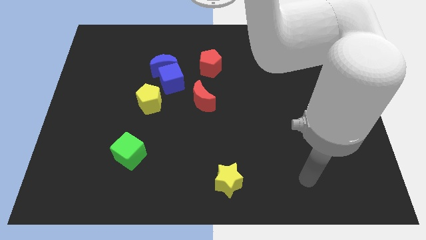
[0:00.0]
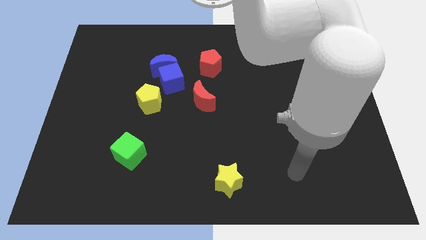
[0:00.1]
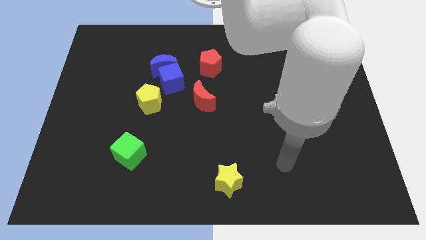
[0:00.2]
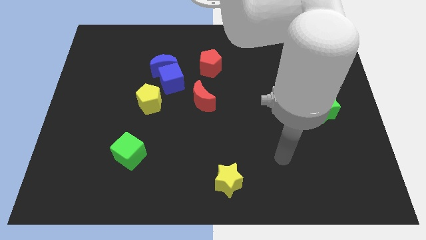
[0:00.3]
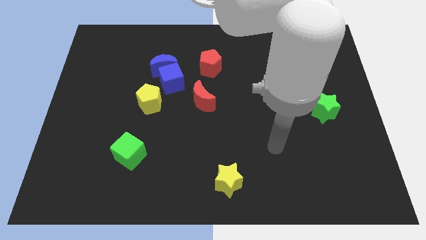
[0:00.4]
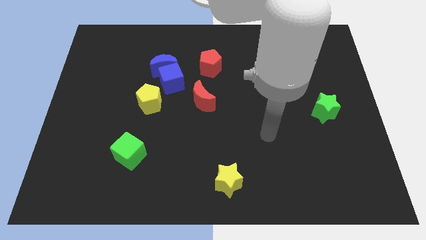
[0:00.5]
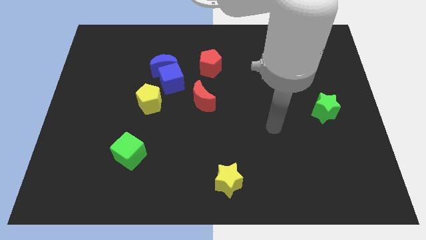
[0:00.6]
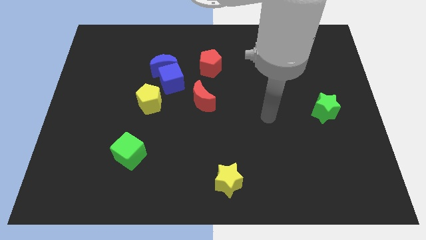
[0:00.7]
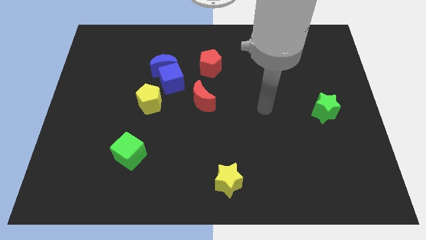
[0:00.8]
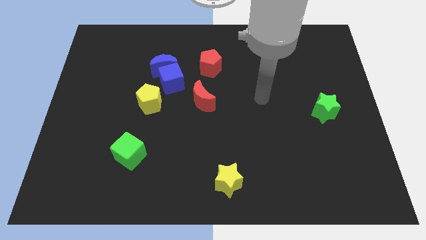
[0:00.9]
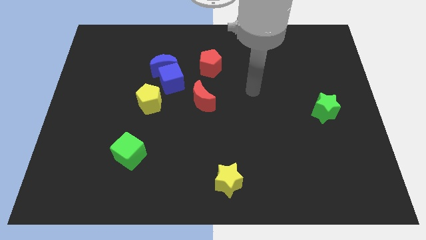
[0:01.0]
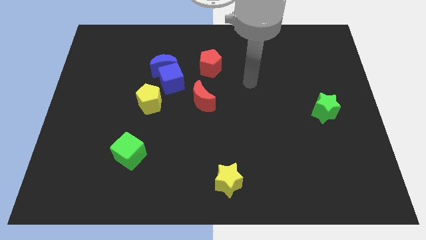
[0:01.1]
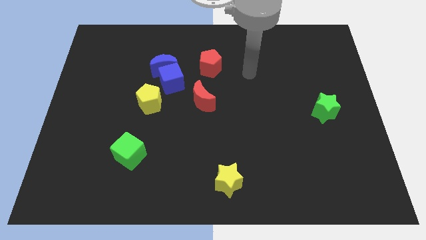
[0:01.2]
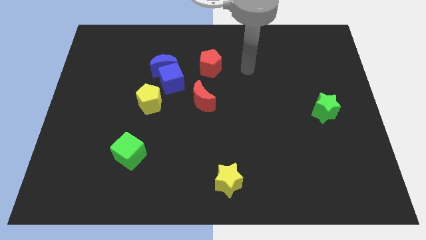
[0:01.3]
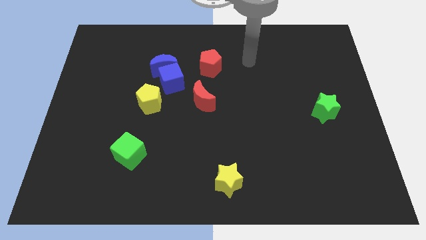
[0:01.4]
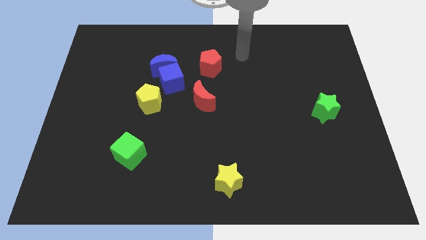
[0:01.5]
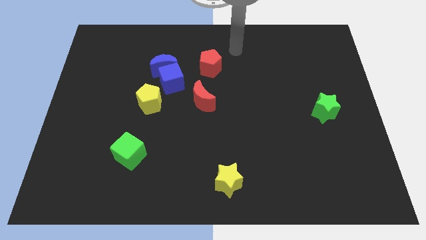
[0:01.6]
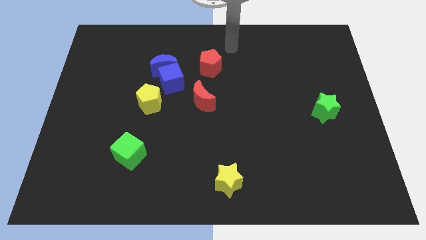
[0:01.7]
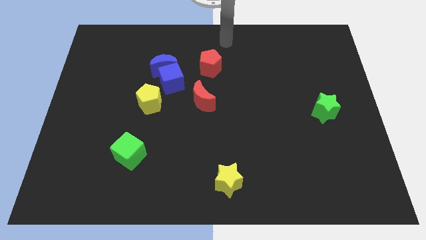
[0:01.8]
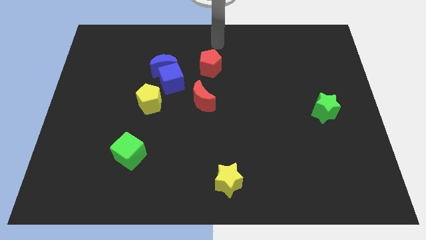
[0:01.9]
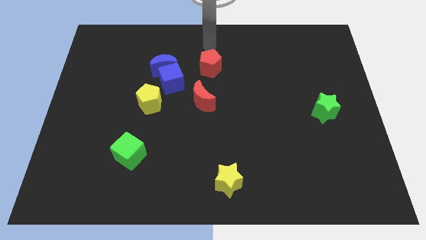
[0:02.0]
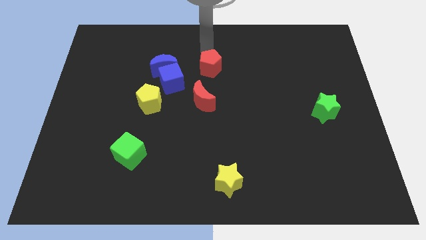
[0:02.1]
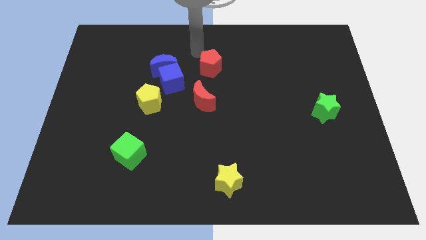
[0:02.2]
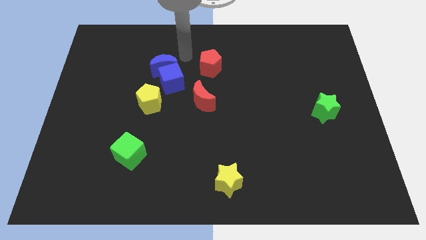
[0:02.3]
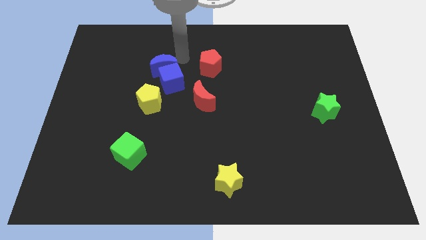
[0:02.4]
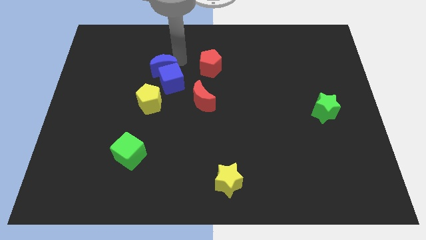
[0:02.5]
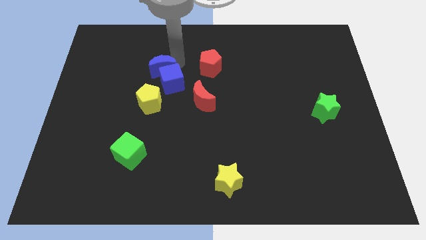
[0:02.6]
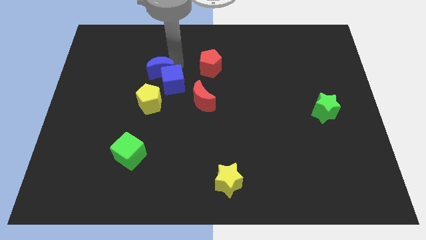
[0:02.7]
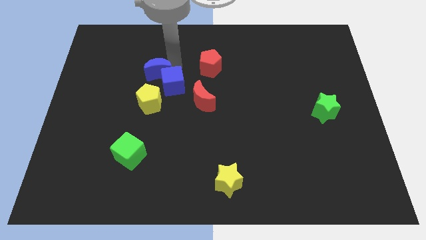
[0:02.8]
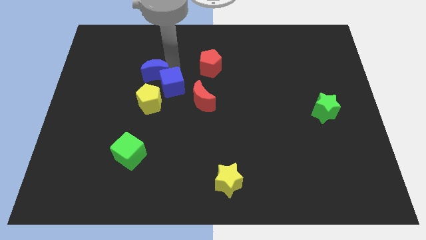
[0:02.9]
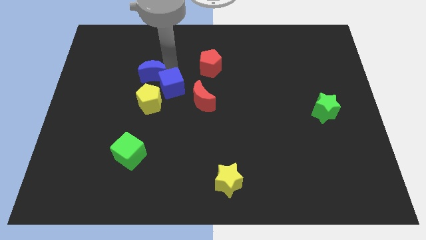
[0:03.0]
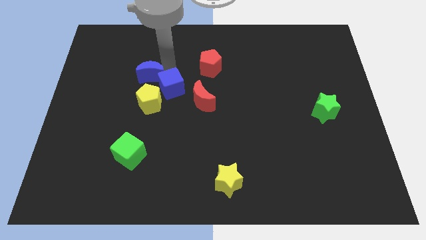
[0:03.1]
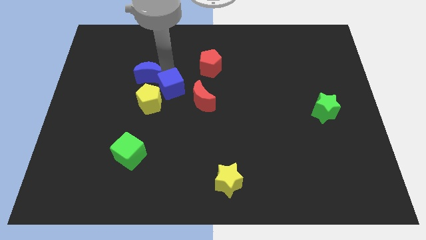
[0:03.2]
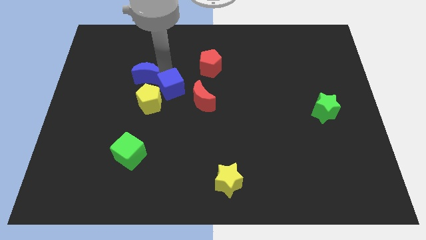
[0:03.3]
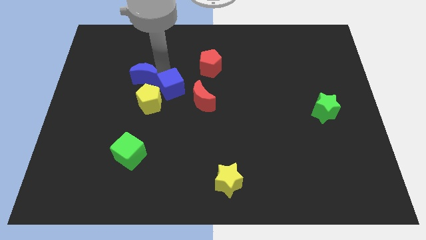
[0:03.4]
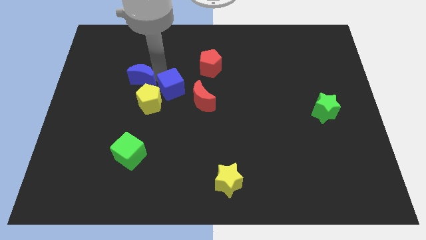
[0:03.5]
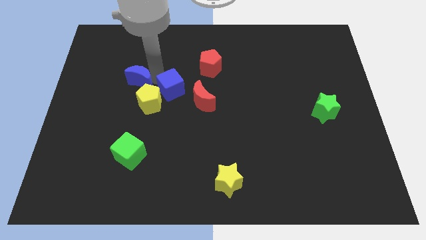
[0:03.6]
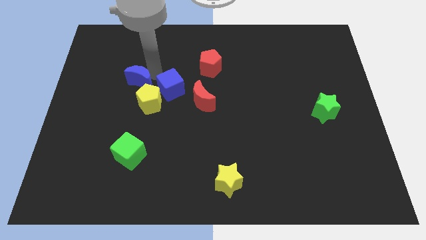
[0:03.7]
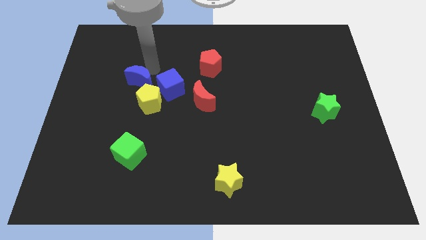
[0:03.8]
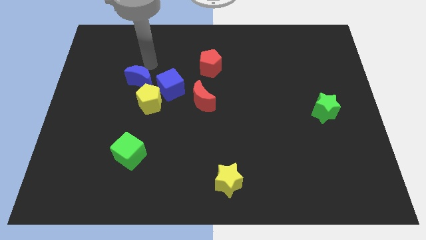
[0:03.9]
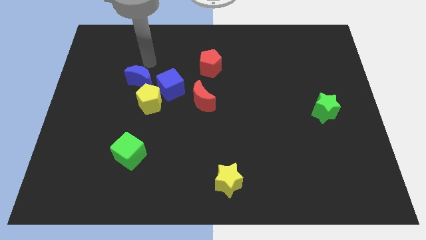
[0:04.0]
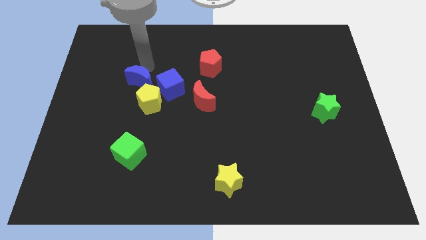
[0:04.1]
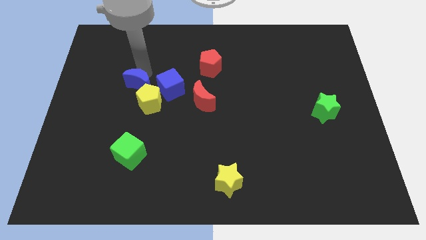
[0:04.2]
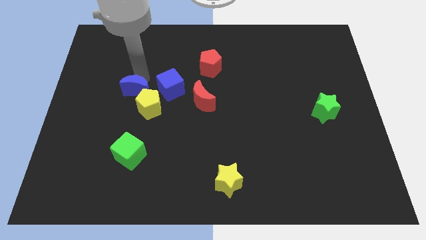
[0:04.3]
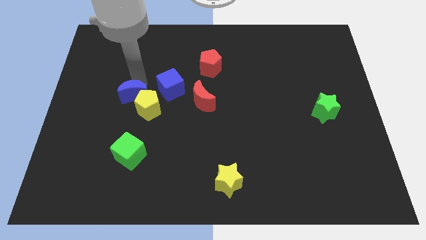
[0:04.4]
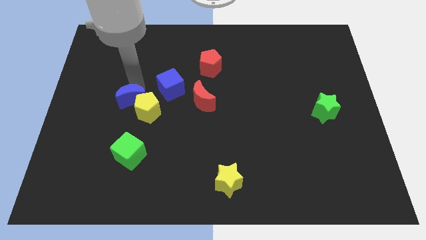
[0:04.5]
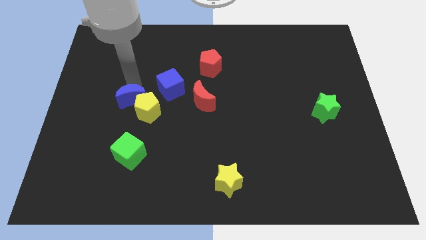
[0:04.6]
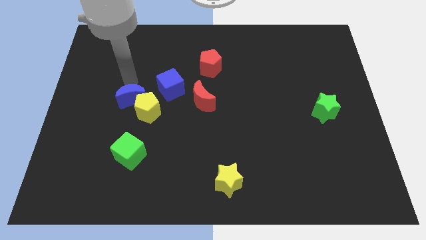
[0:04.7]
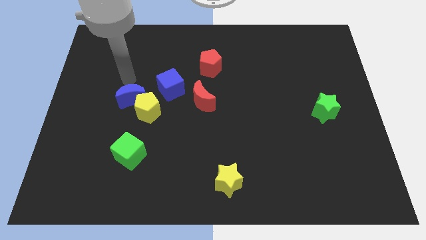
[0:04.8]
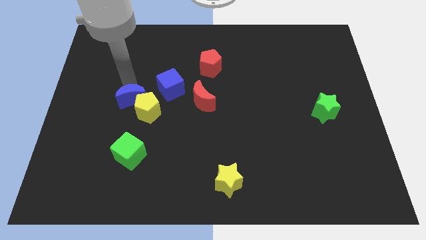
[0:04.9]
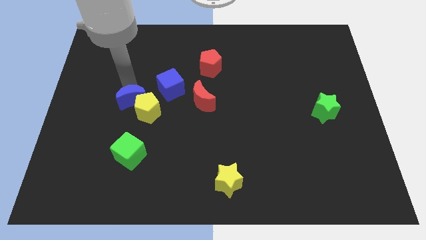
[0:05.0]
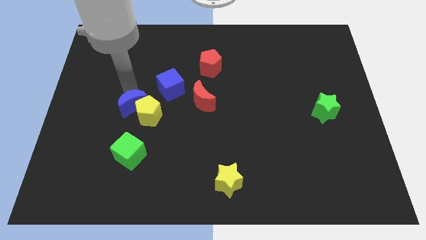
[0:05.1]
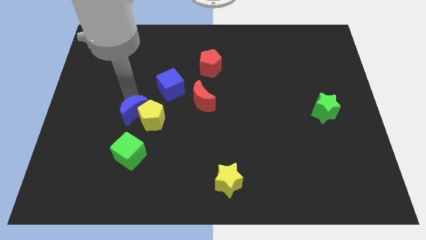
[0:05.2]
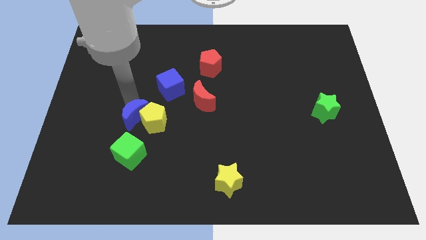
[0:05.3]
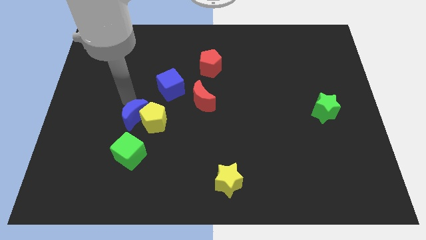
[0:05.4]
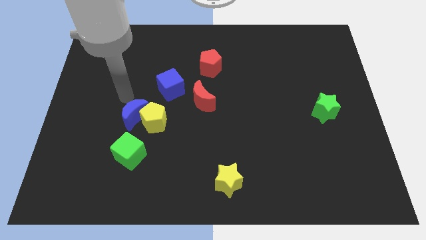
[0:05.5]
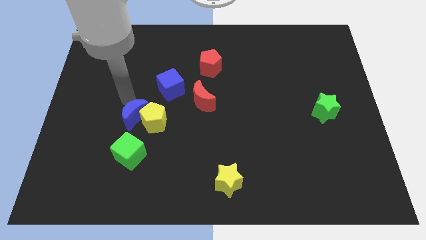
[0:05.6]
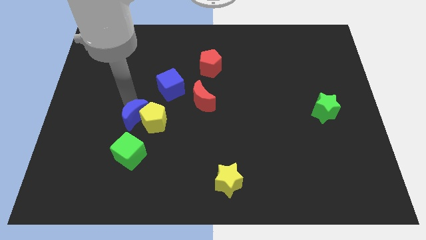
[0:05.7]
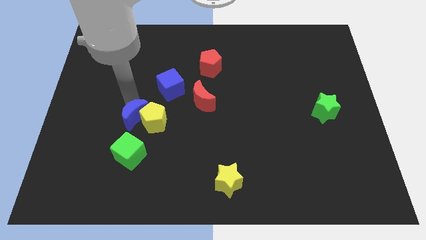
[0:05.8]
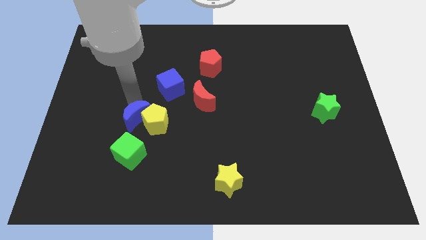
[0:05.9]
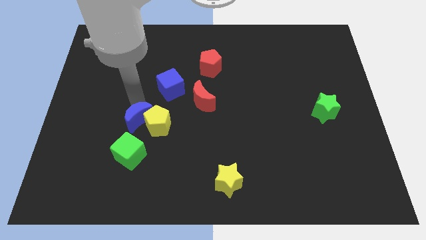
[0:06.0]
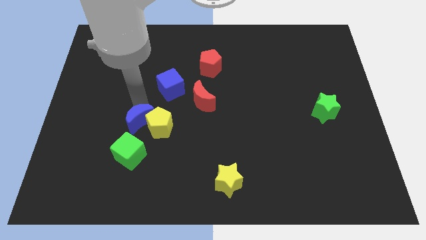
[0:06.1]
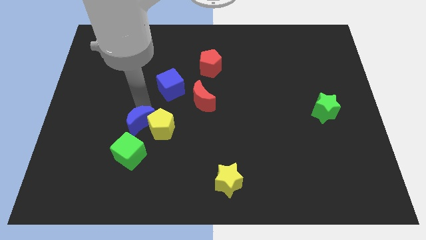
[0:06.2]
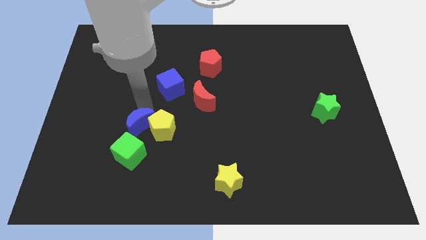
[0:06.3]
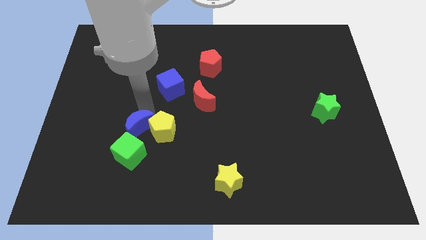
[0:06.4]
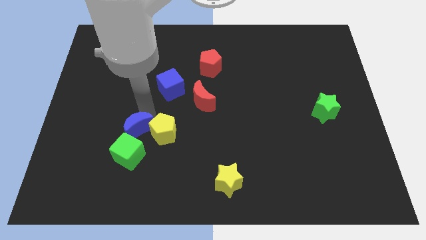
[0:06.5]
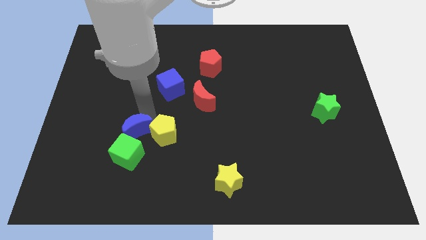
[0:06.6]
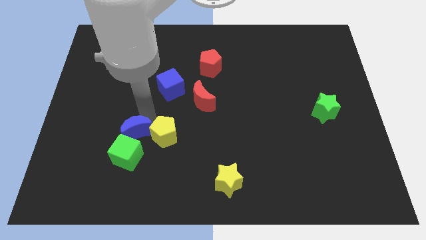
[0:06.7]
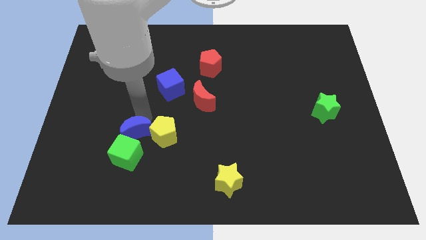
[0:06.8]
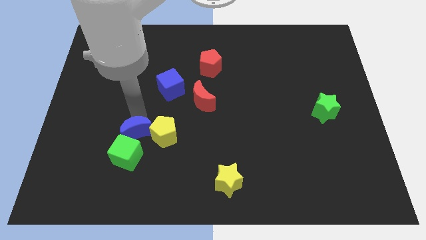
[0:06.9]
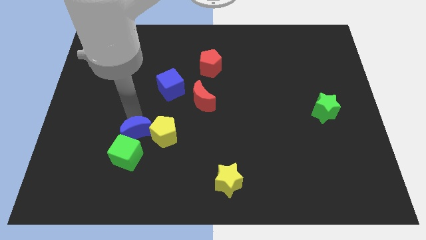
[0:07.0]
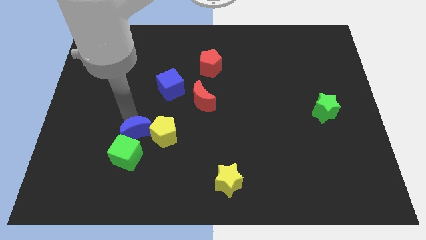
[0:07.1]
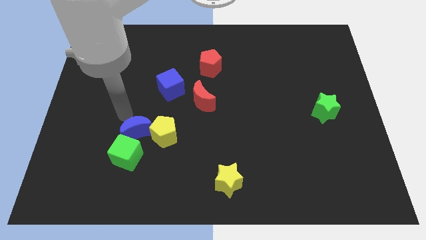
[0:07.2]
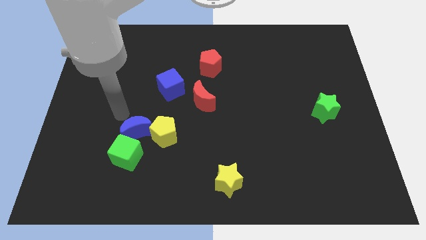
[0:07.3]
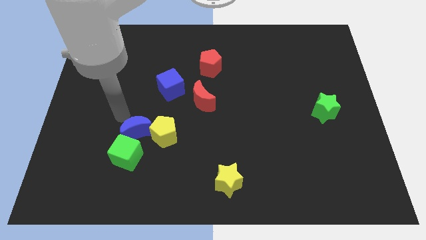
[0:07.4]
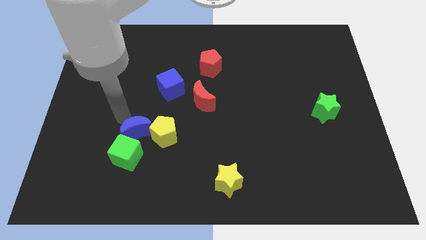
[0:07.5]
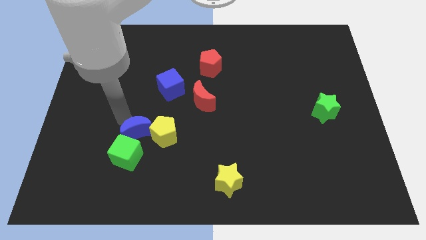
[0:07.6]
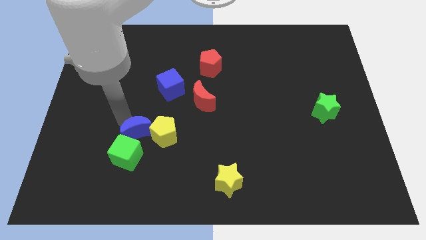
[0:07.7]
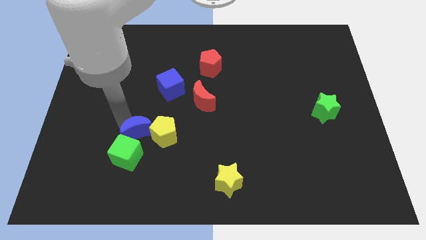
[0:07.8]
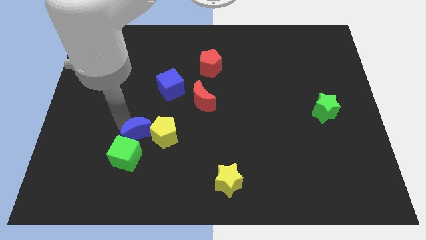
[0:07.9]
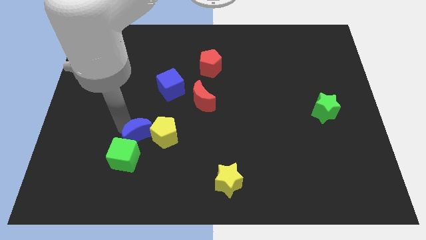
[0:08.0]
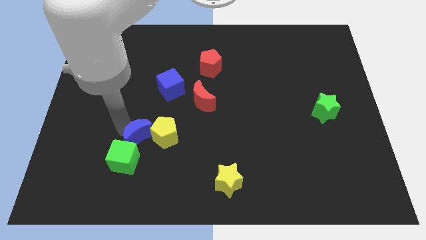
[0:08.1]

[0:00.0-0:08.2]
move the blue moon downwards

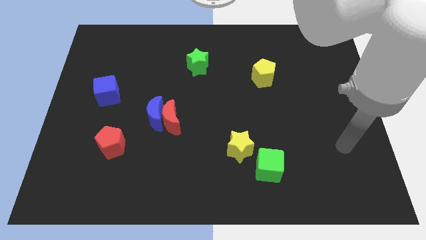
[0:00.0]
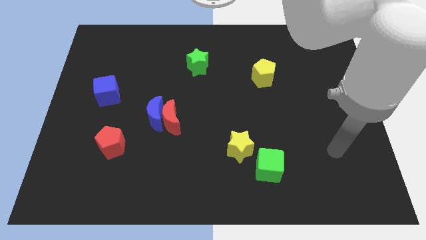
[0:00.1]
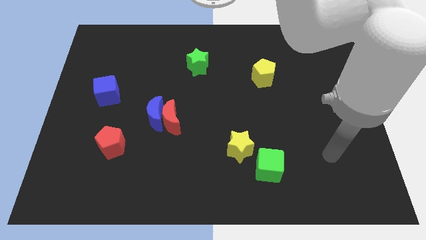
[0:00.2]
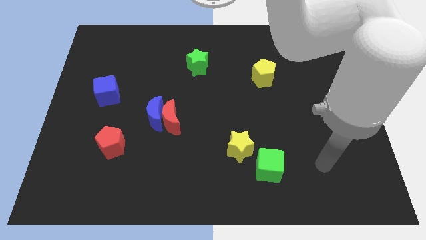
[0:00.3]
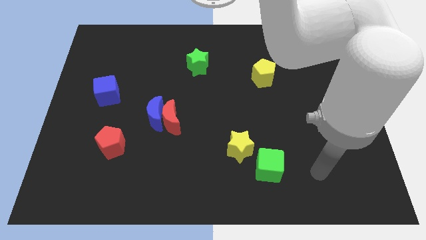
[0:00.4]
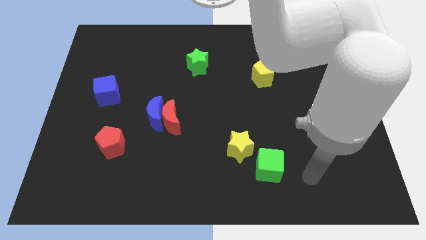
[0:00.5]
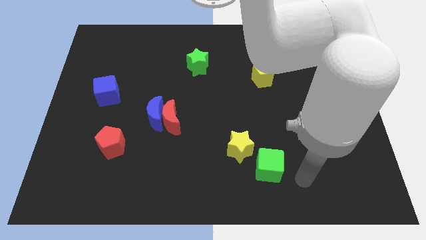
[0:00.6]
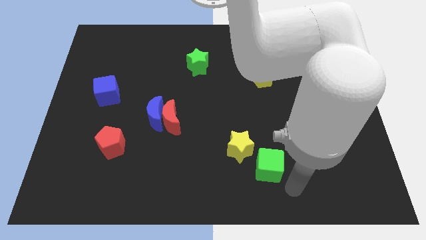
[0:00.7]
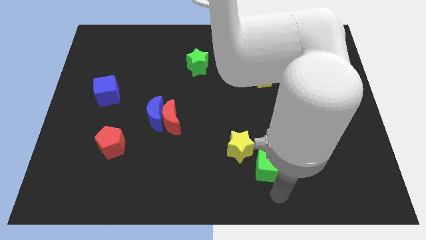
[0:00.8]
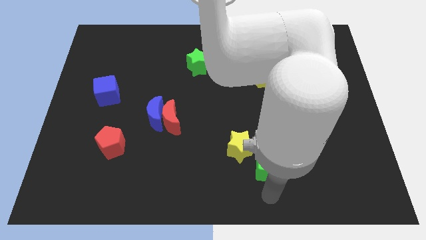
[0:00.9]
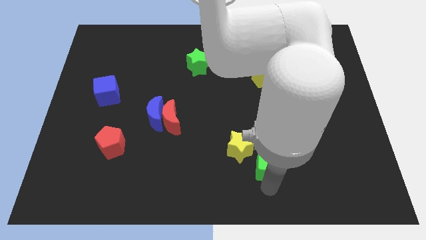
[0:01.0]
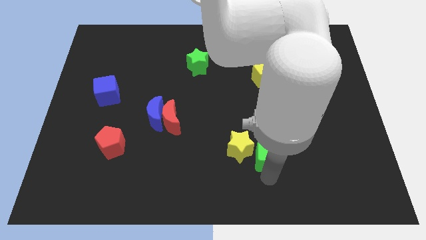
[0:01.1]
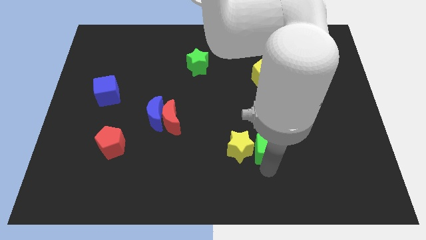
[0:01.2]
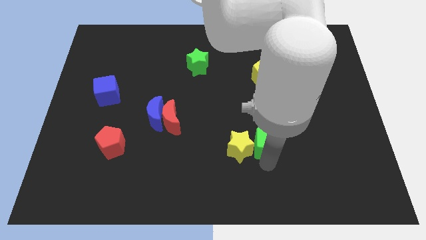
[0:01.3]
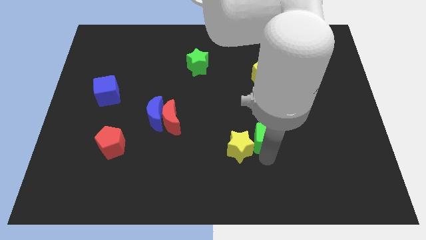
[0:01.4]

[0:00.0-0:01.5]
slightly push the green cube up
